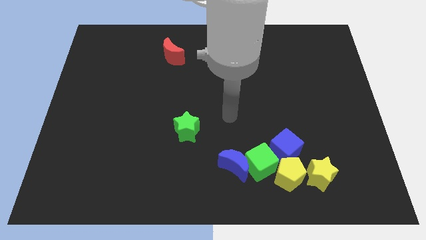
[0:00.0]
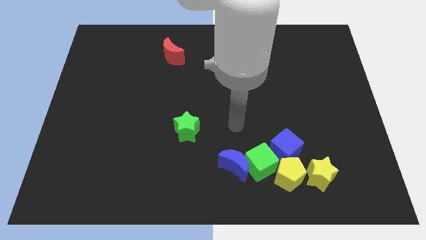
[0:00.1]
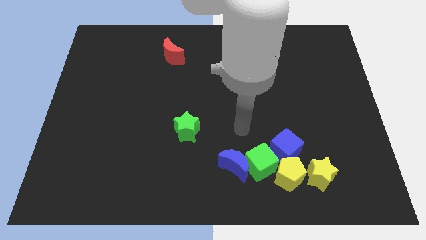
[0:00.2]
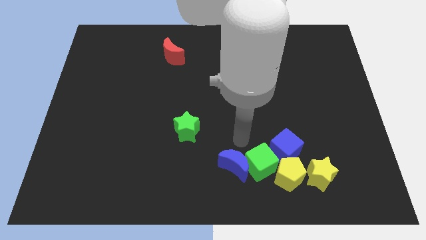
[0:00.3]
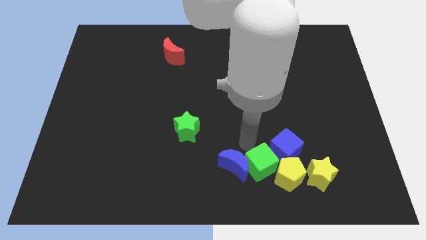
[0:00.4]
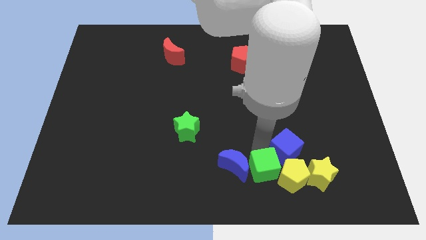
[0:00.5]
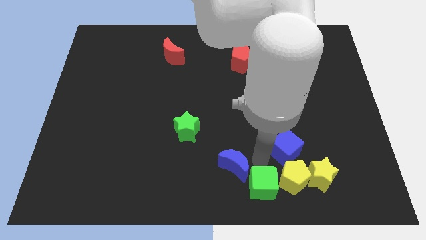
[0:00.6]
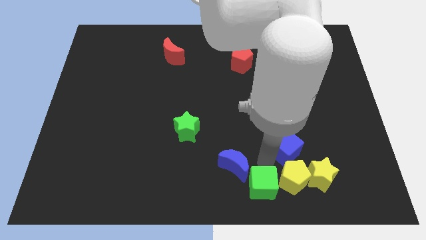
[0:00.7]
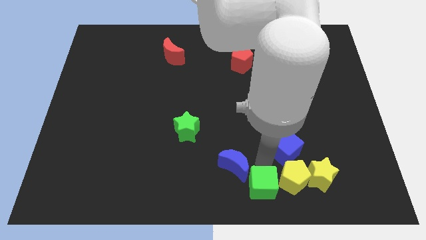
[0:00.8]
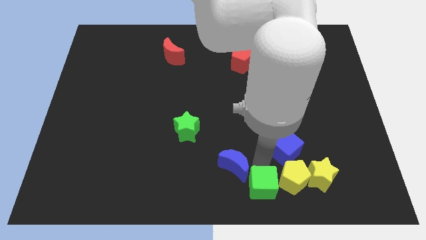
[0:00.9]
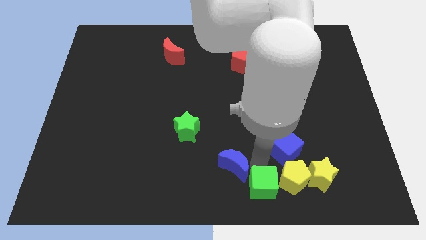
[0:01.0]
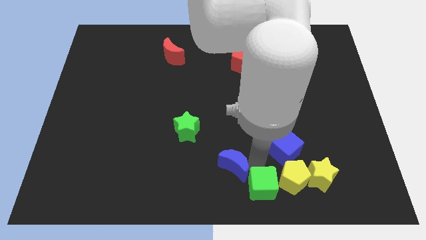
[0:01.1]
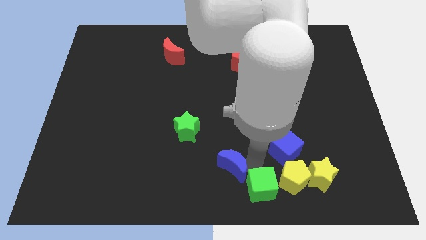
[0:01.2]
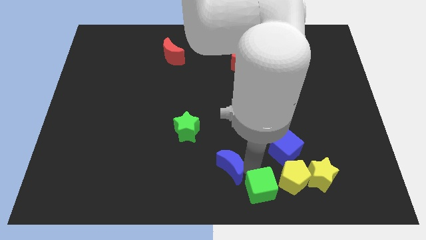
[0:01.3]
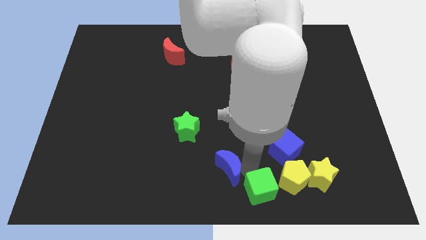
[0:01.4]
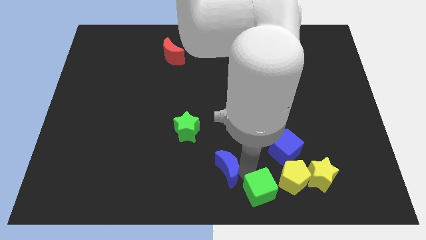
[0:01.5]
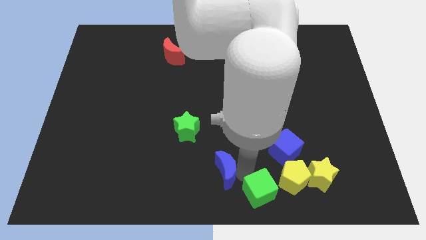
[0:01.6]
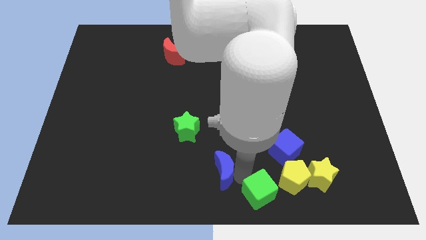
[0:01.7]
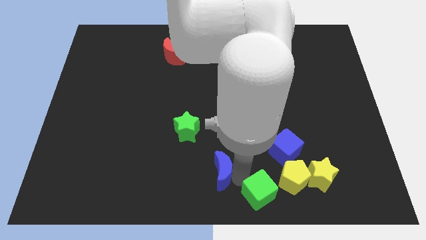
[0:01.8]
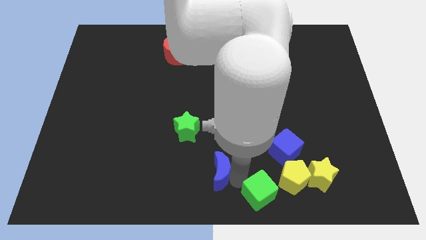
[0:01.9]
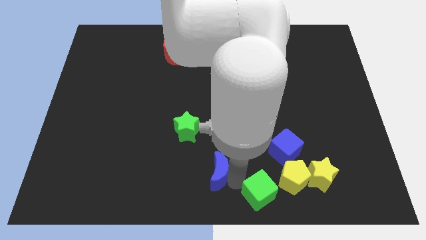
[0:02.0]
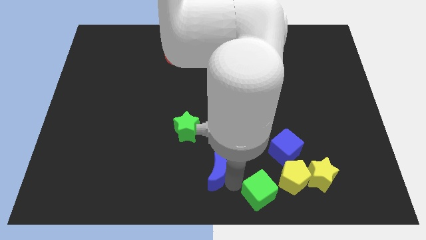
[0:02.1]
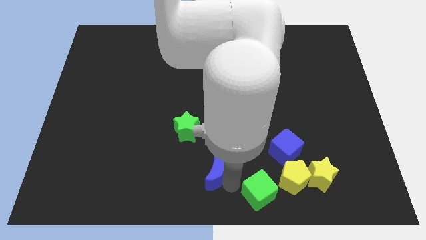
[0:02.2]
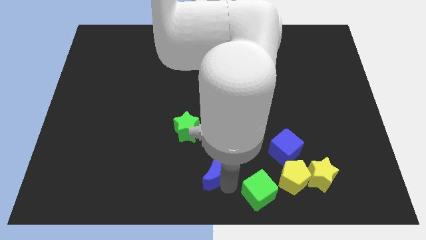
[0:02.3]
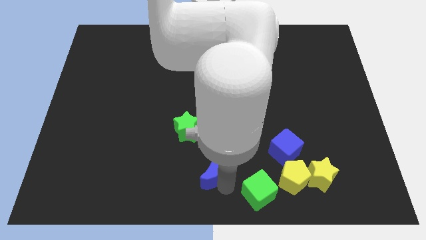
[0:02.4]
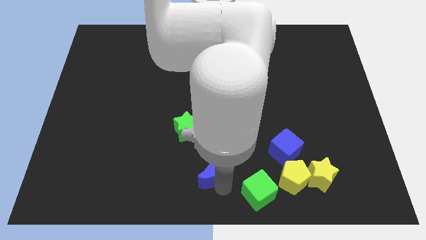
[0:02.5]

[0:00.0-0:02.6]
move the blue moon away from the green cube

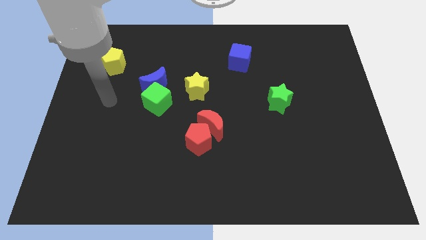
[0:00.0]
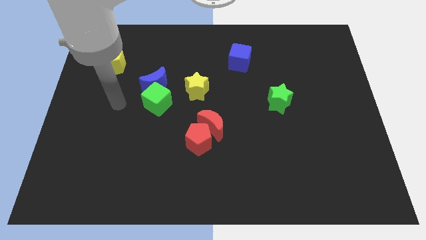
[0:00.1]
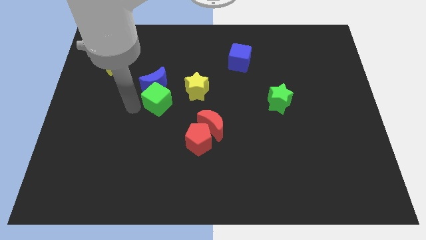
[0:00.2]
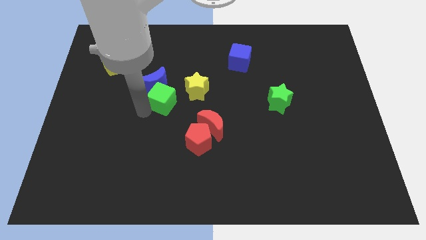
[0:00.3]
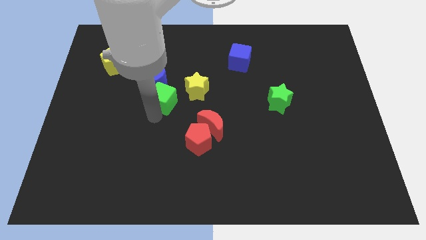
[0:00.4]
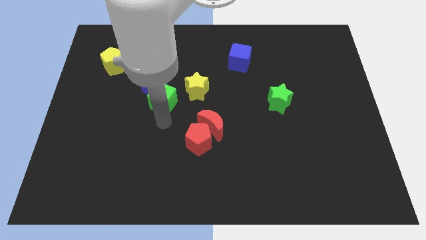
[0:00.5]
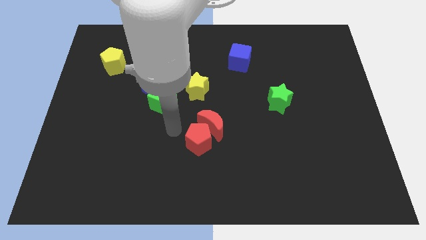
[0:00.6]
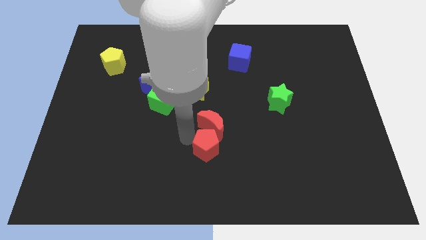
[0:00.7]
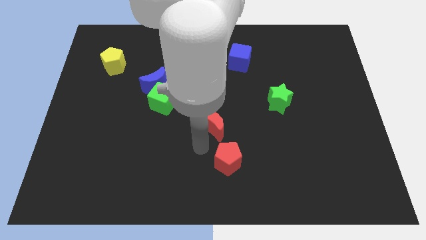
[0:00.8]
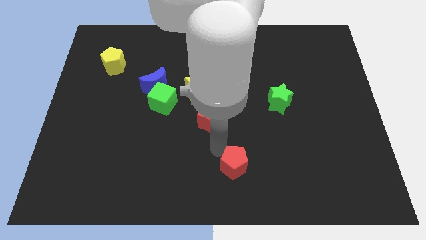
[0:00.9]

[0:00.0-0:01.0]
move the red moon away from the red pentagon

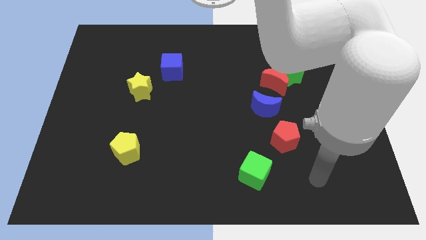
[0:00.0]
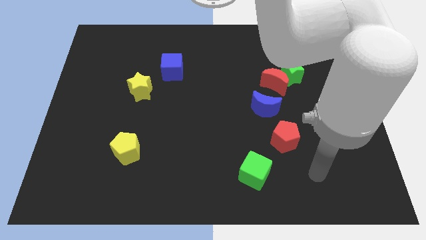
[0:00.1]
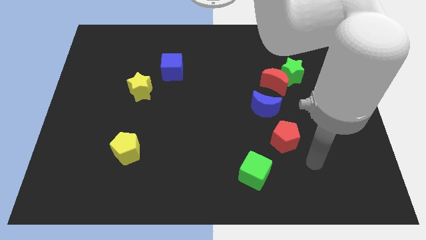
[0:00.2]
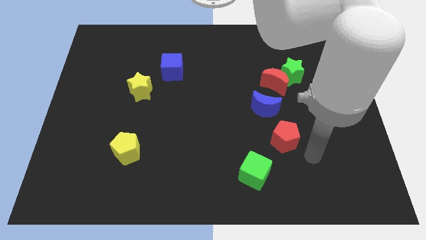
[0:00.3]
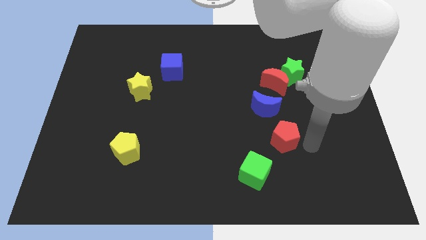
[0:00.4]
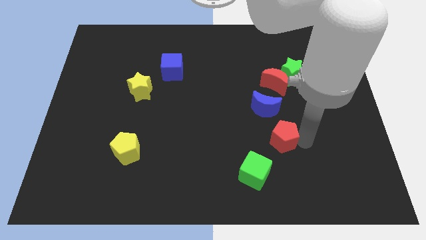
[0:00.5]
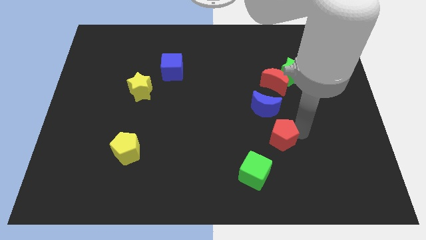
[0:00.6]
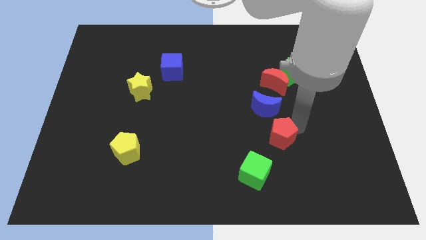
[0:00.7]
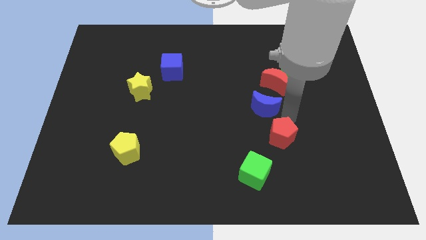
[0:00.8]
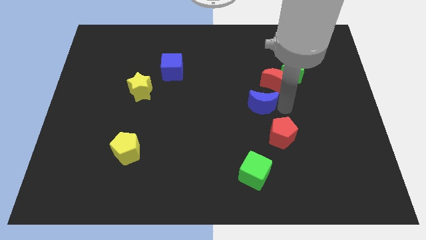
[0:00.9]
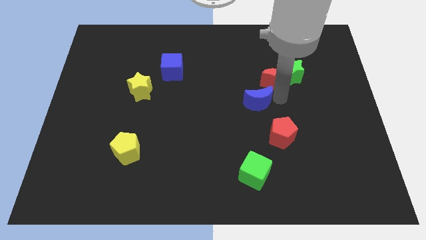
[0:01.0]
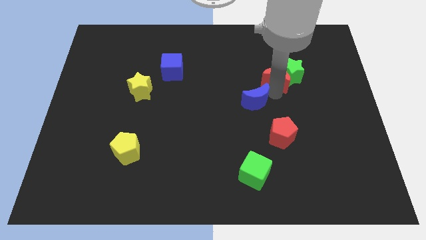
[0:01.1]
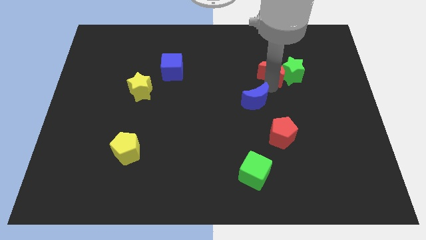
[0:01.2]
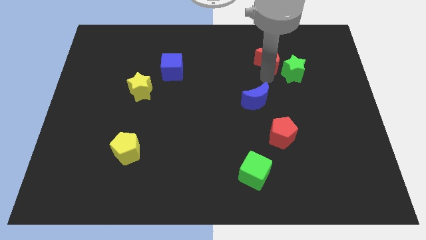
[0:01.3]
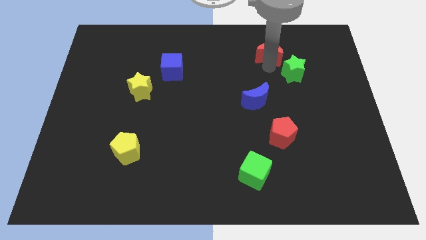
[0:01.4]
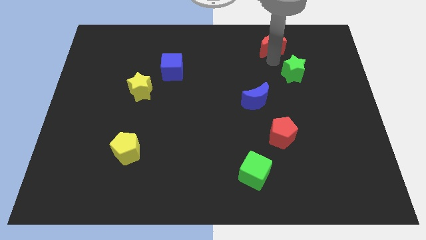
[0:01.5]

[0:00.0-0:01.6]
separate the green star from the red moon

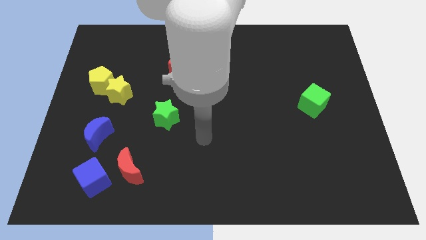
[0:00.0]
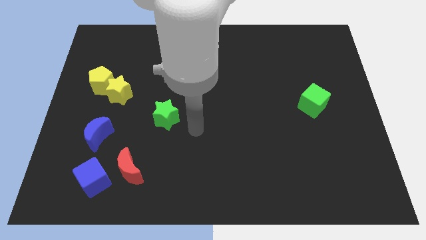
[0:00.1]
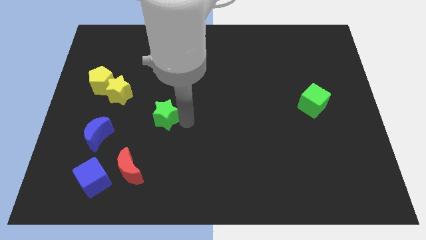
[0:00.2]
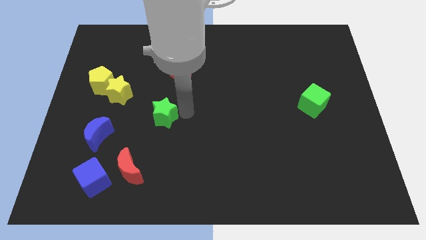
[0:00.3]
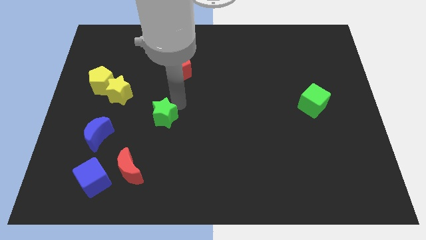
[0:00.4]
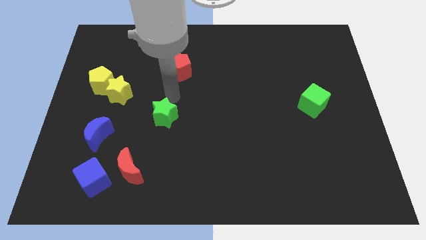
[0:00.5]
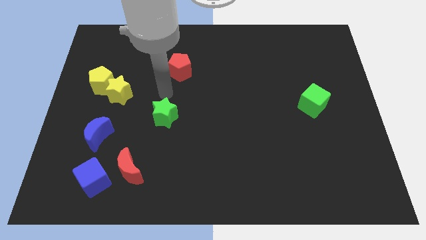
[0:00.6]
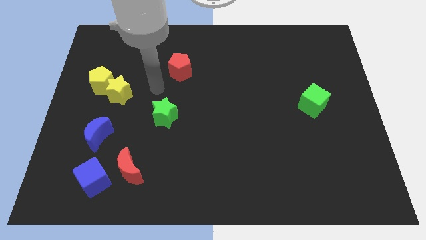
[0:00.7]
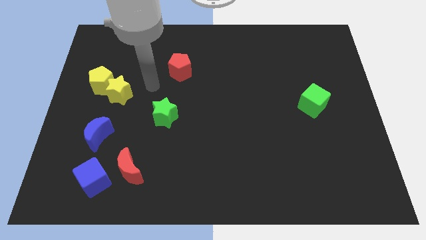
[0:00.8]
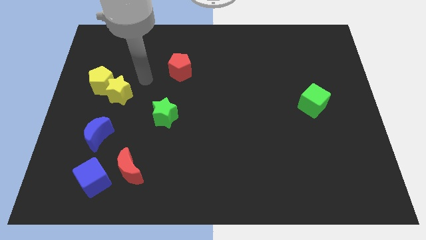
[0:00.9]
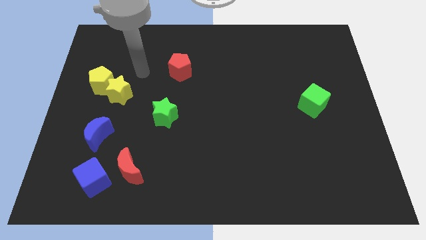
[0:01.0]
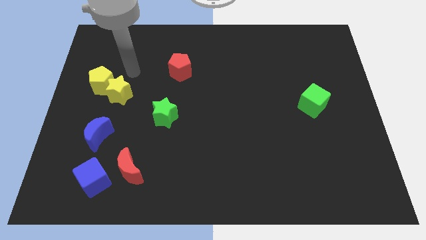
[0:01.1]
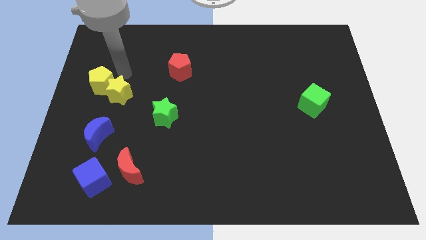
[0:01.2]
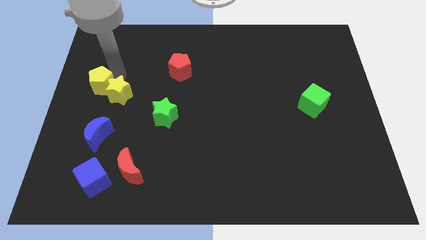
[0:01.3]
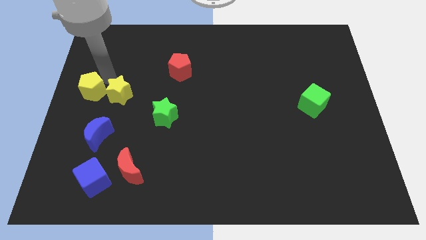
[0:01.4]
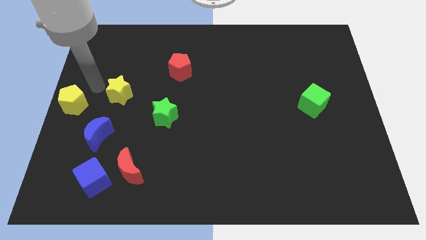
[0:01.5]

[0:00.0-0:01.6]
pull the yellow star apart from the yellow pentagon

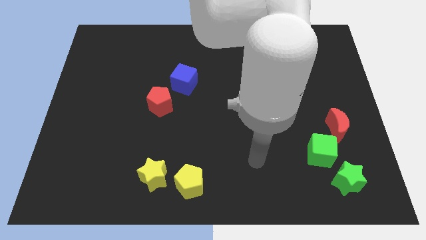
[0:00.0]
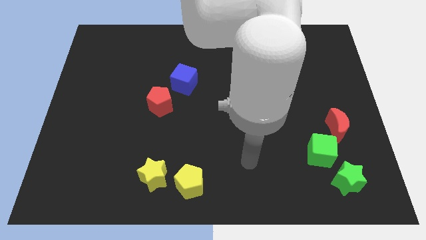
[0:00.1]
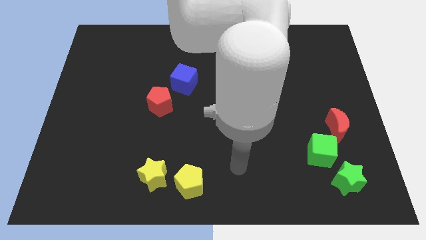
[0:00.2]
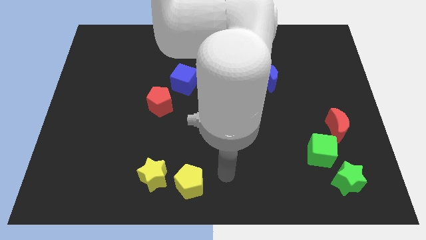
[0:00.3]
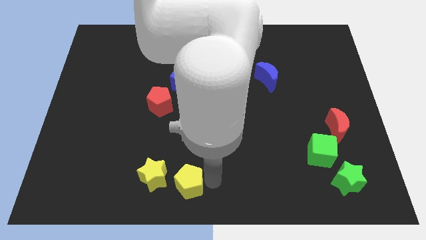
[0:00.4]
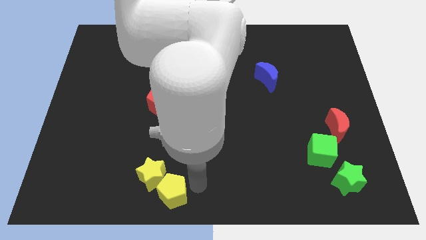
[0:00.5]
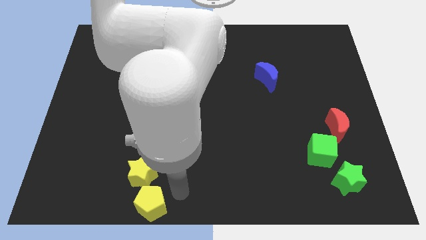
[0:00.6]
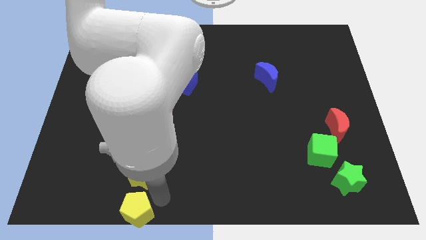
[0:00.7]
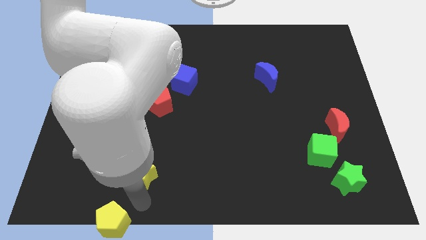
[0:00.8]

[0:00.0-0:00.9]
separate the yellow star from the yellow pentagon

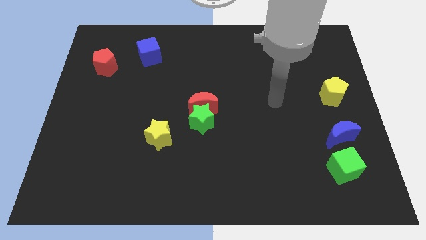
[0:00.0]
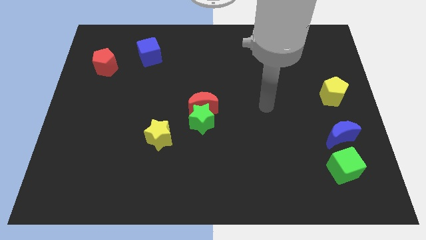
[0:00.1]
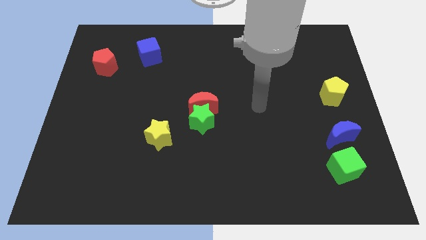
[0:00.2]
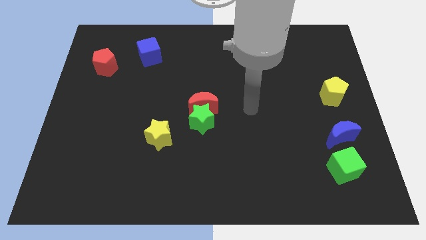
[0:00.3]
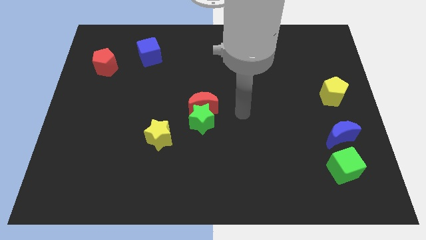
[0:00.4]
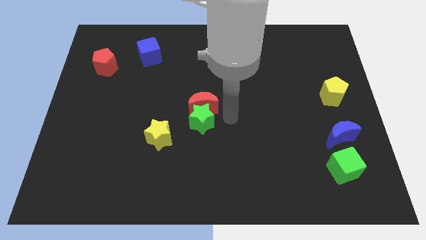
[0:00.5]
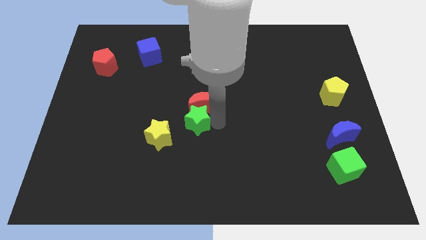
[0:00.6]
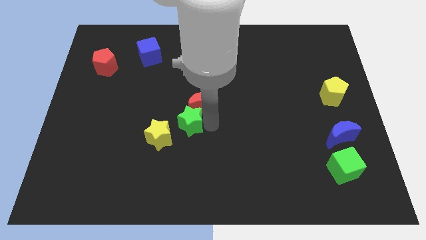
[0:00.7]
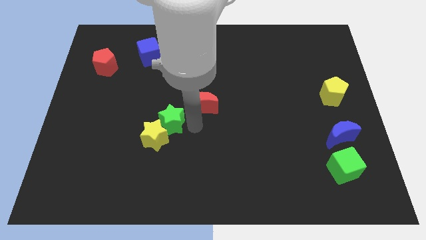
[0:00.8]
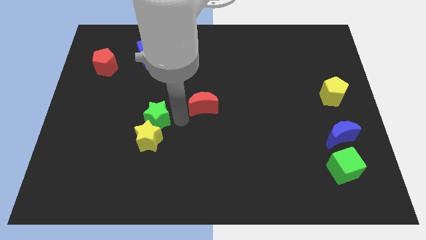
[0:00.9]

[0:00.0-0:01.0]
pull the red moon apart from the green star

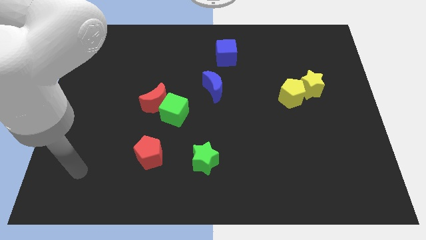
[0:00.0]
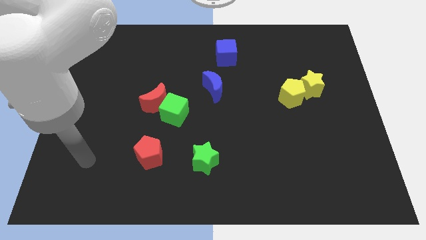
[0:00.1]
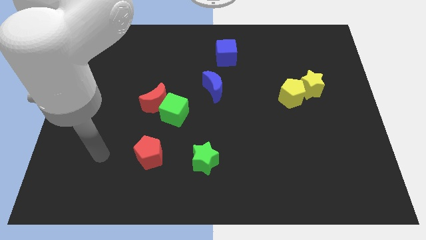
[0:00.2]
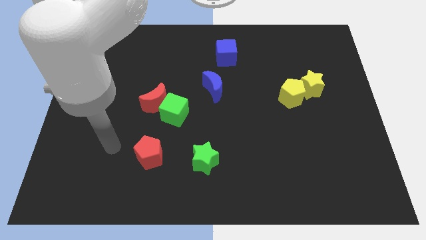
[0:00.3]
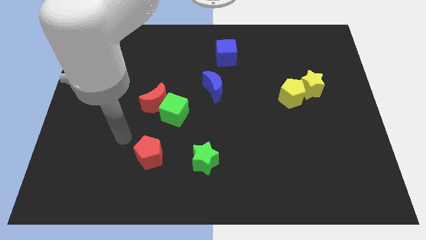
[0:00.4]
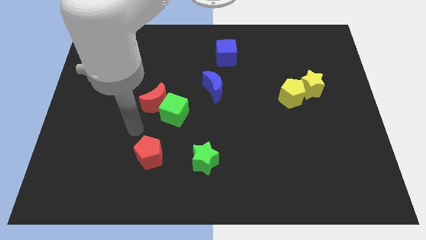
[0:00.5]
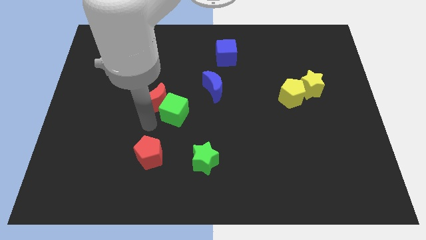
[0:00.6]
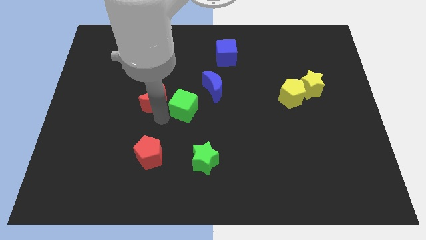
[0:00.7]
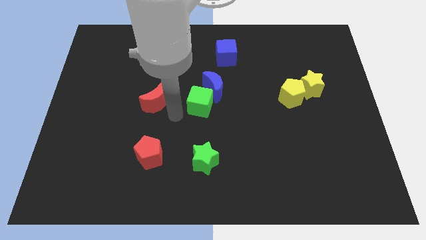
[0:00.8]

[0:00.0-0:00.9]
pull the red moon apart from the green cube
